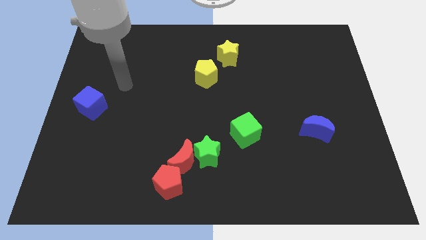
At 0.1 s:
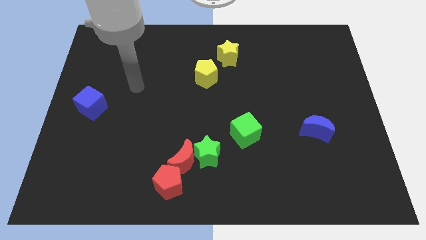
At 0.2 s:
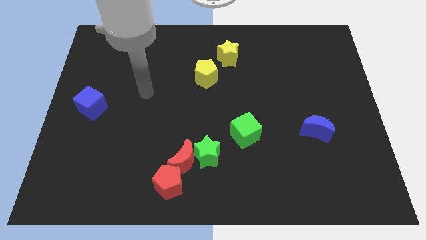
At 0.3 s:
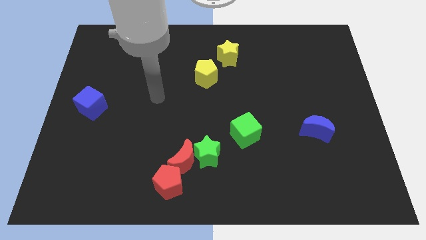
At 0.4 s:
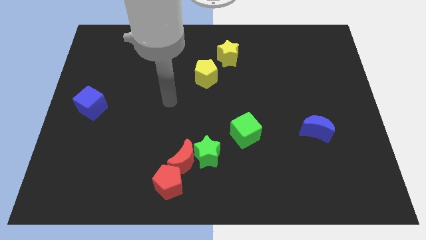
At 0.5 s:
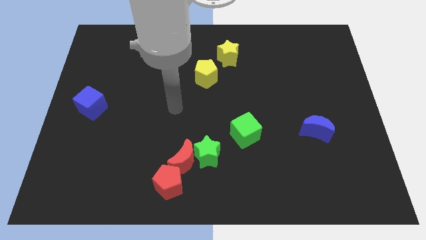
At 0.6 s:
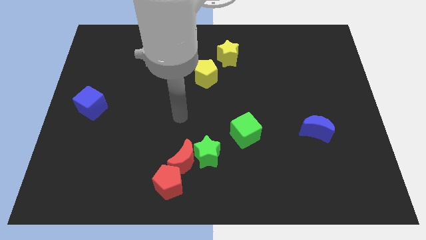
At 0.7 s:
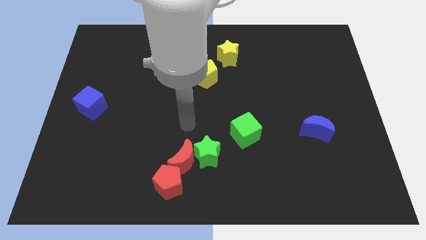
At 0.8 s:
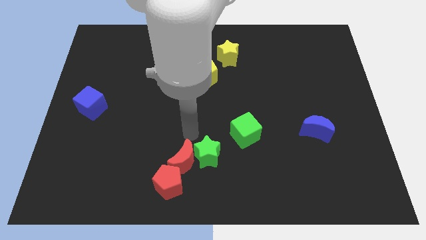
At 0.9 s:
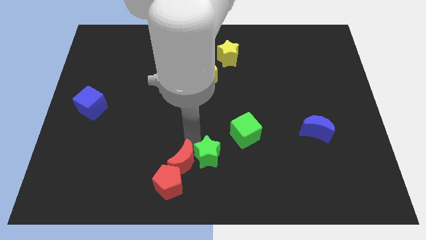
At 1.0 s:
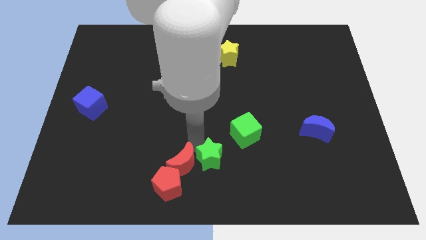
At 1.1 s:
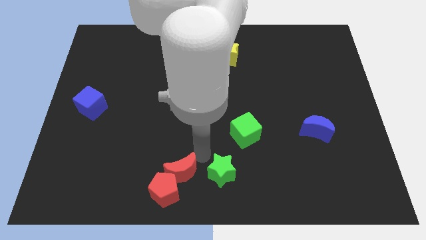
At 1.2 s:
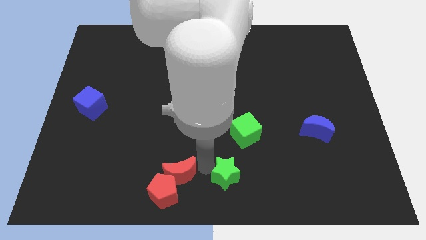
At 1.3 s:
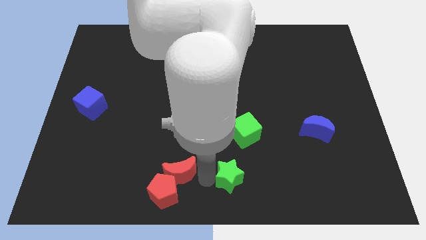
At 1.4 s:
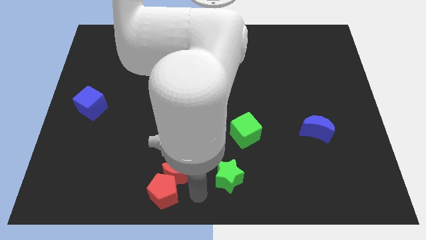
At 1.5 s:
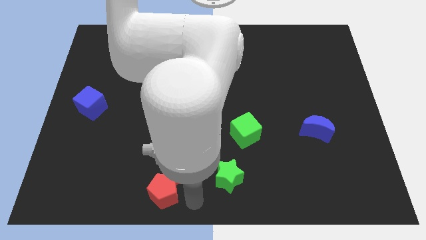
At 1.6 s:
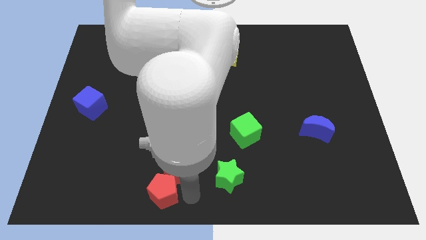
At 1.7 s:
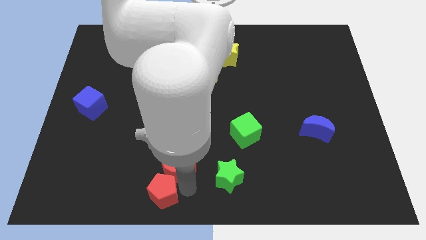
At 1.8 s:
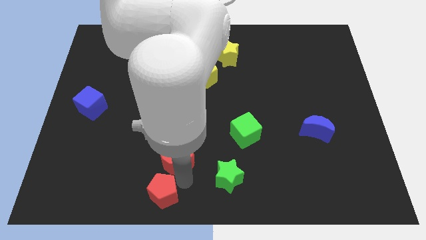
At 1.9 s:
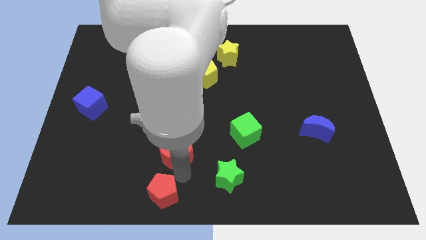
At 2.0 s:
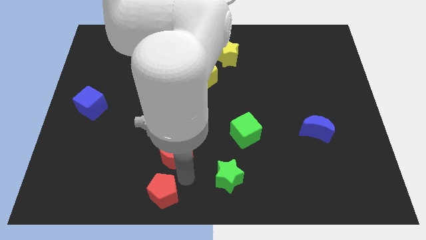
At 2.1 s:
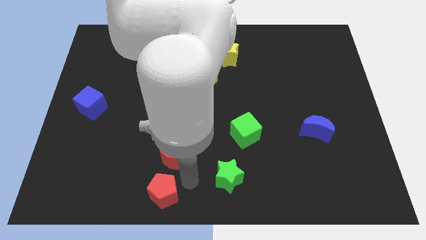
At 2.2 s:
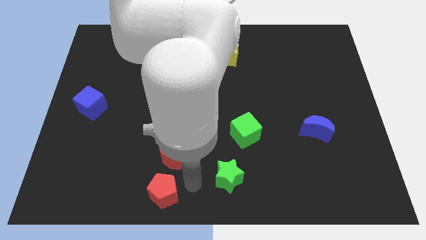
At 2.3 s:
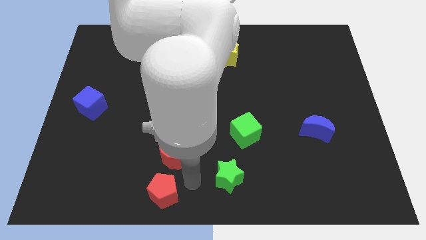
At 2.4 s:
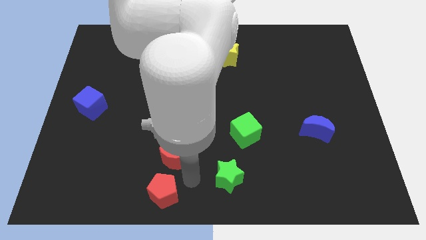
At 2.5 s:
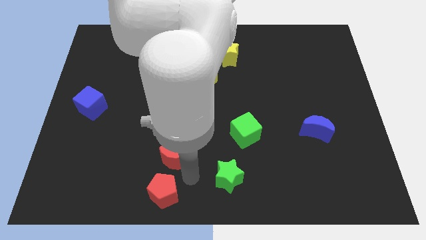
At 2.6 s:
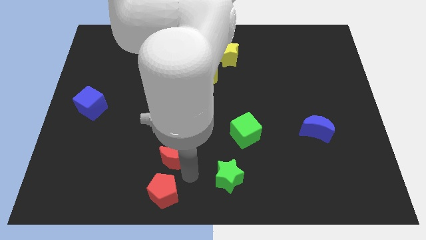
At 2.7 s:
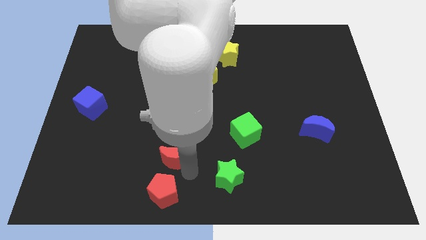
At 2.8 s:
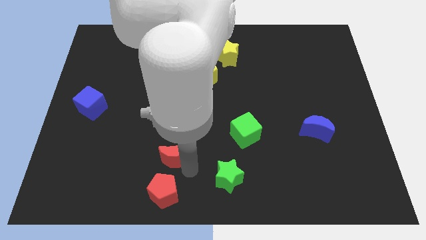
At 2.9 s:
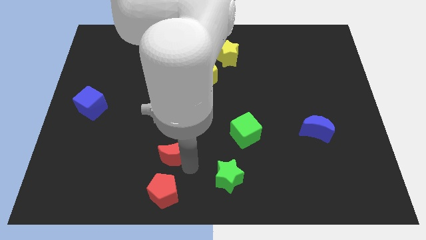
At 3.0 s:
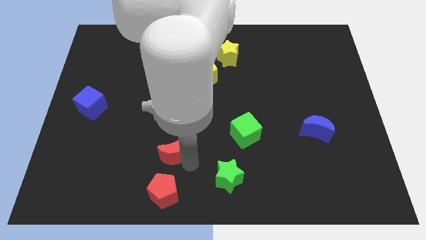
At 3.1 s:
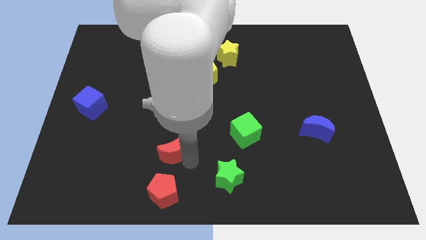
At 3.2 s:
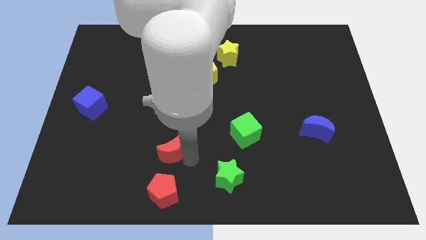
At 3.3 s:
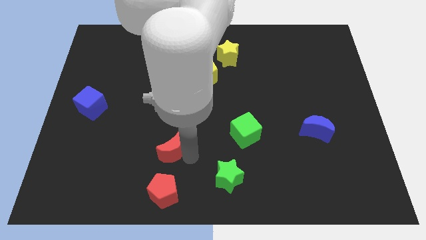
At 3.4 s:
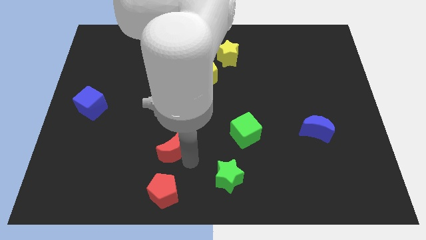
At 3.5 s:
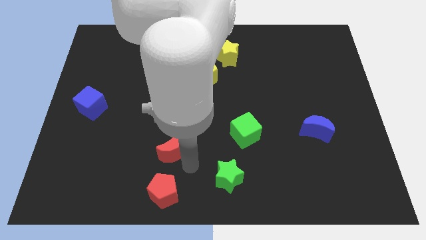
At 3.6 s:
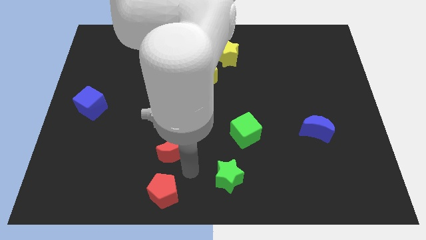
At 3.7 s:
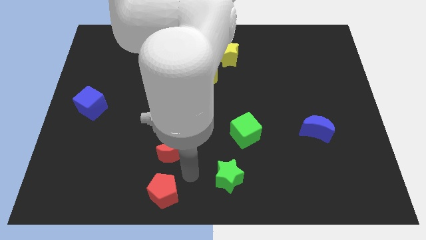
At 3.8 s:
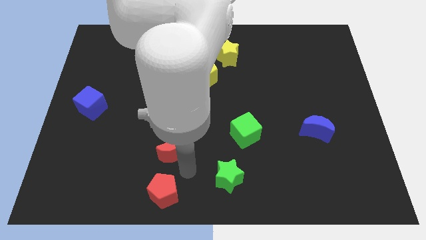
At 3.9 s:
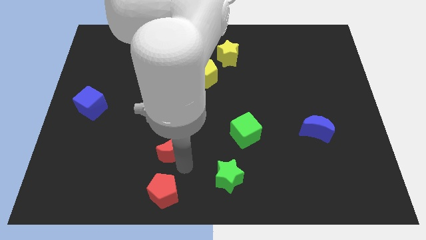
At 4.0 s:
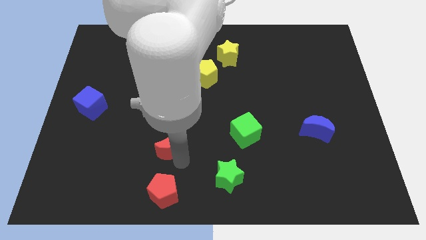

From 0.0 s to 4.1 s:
pull the red moon apart from the green star and red pentagon

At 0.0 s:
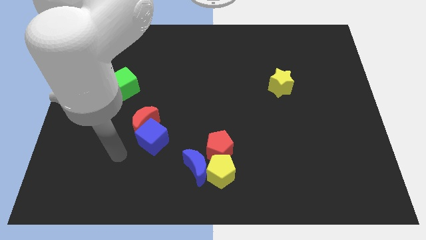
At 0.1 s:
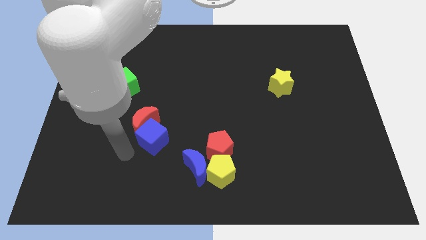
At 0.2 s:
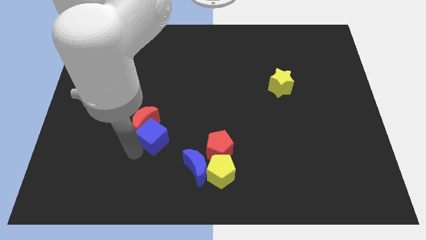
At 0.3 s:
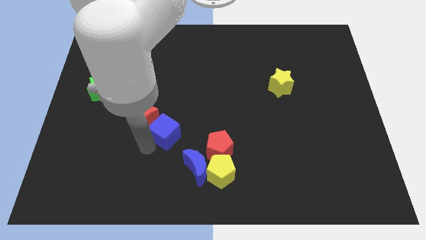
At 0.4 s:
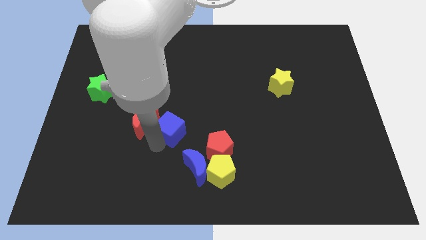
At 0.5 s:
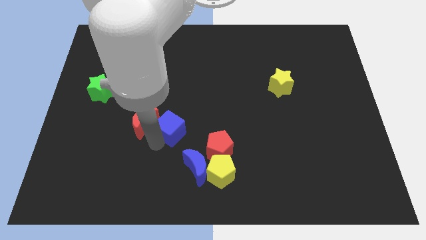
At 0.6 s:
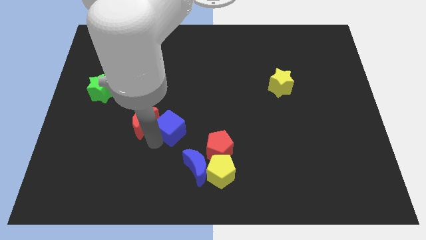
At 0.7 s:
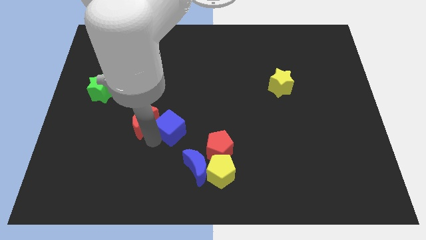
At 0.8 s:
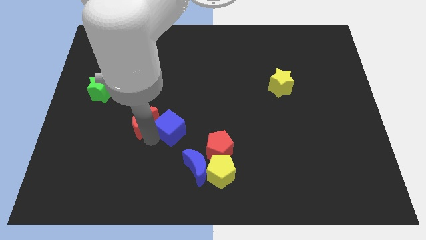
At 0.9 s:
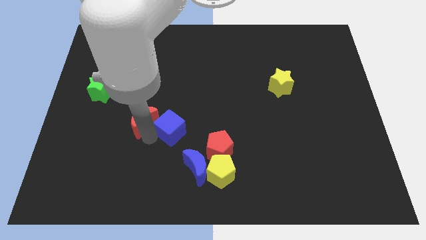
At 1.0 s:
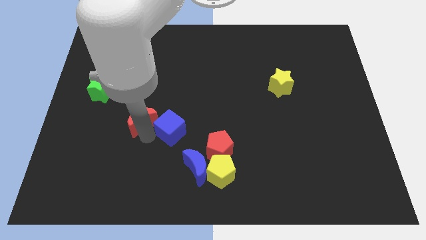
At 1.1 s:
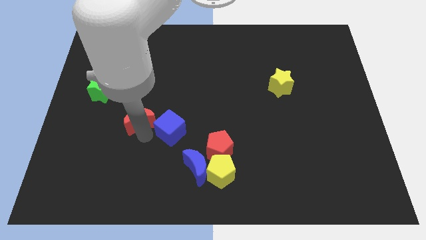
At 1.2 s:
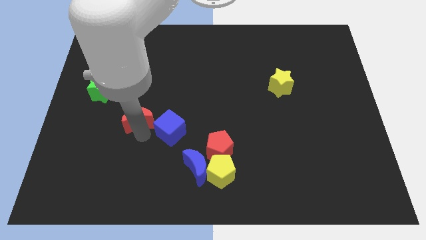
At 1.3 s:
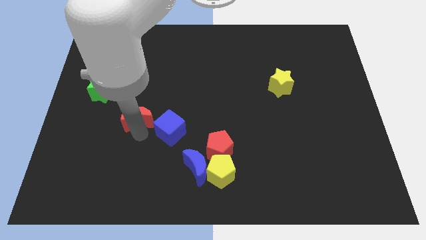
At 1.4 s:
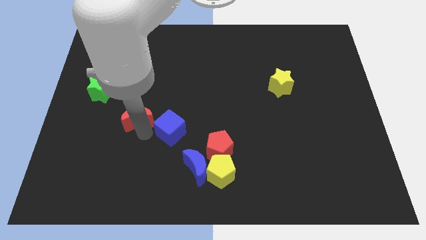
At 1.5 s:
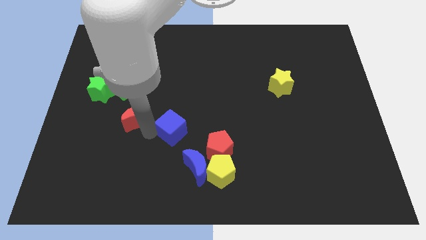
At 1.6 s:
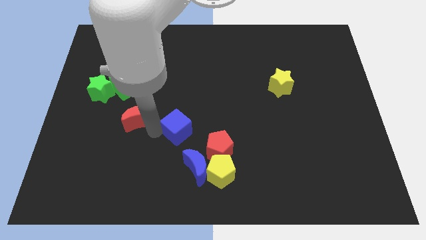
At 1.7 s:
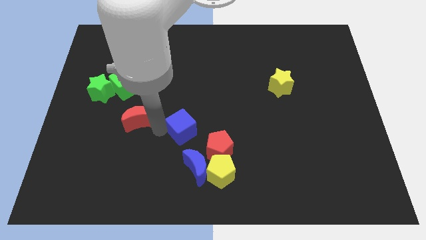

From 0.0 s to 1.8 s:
pull the red moon apart from the blue cube

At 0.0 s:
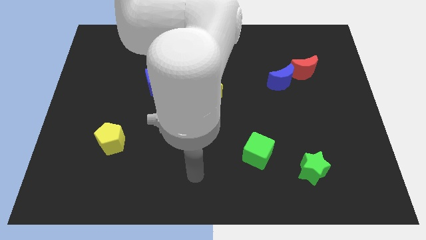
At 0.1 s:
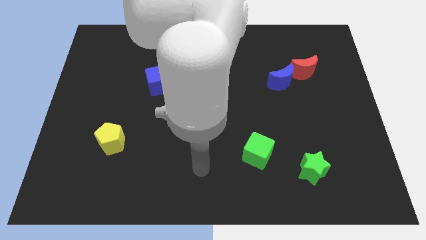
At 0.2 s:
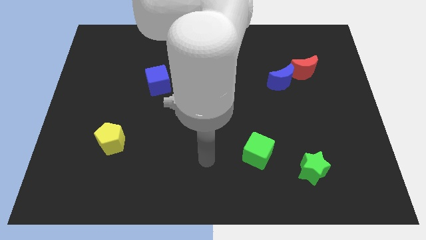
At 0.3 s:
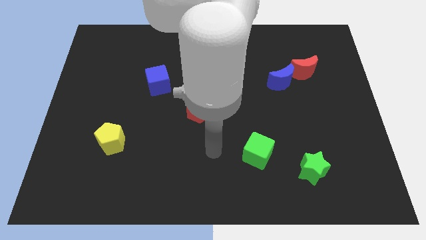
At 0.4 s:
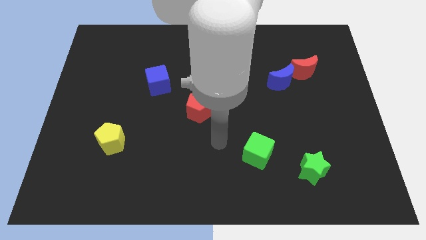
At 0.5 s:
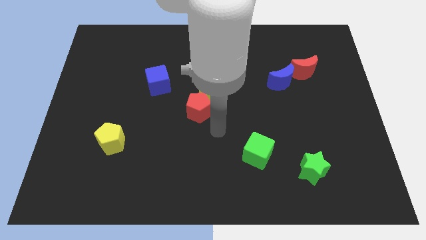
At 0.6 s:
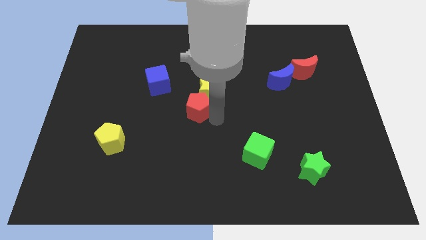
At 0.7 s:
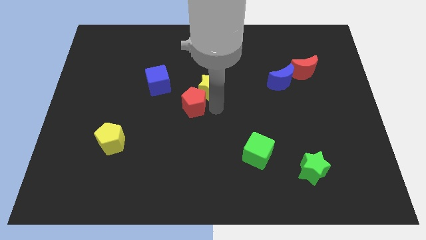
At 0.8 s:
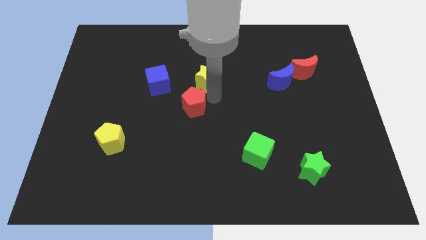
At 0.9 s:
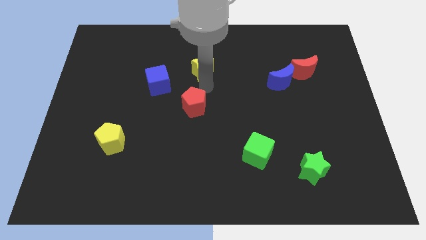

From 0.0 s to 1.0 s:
pull the red pentagon apart from the yellow star

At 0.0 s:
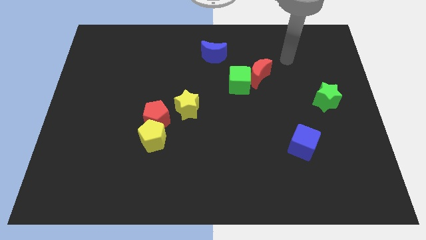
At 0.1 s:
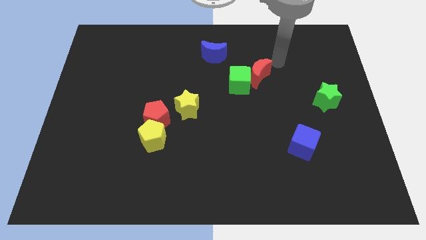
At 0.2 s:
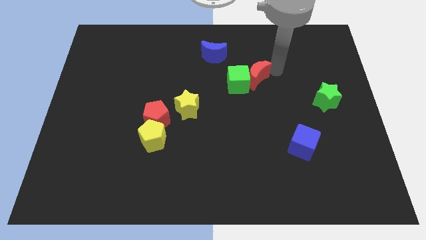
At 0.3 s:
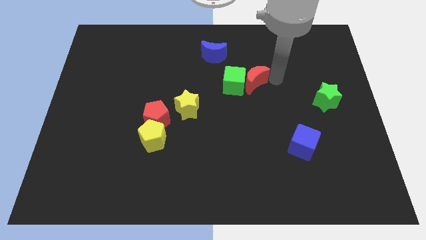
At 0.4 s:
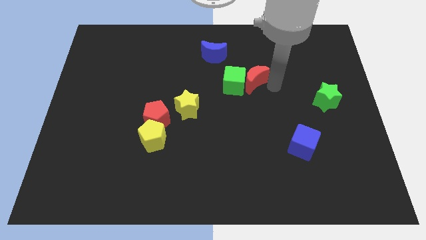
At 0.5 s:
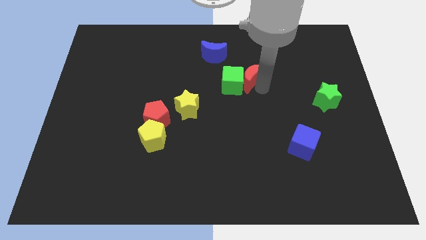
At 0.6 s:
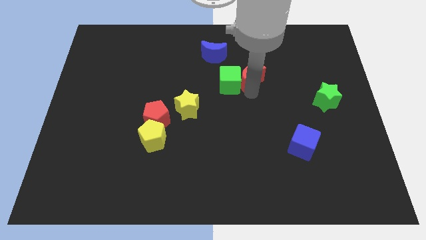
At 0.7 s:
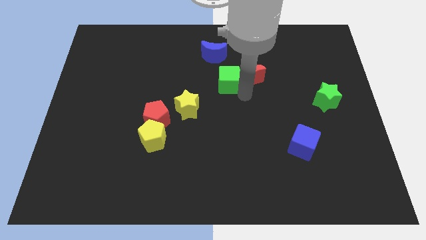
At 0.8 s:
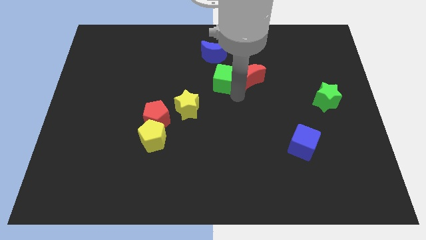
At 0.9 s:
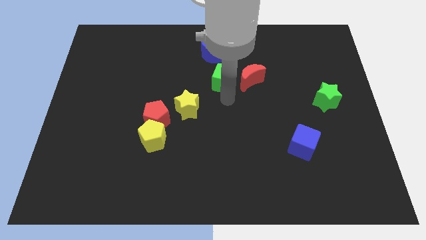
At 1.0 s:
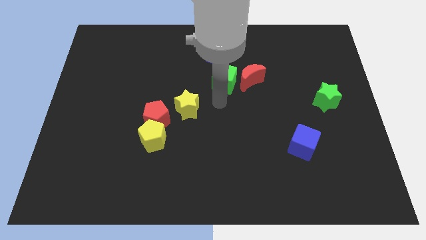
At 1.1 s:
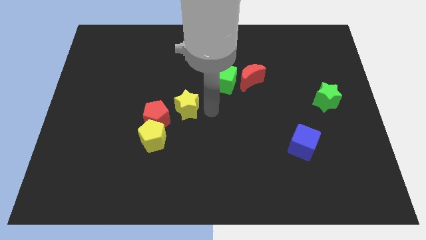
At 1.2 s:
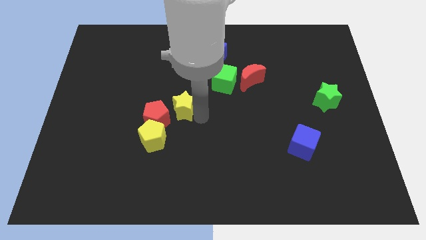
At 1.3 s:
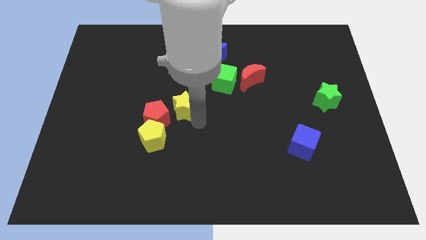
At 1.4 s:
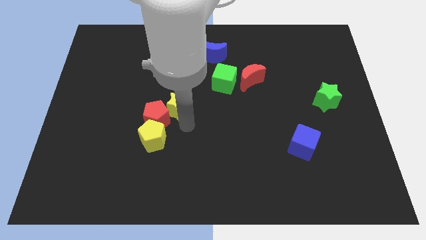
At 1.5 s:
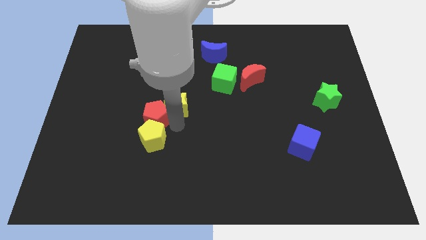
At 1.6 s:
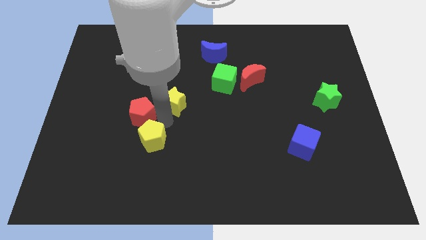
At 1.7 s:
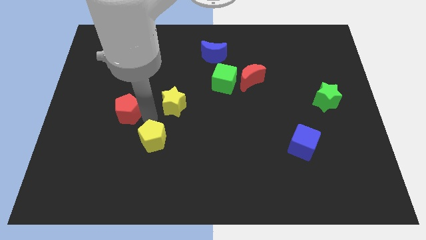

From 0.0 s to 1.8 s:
separate the yellow pentagon from the red pentagon

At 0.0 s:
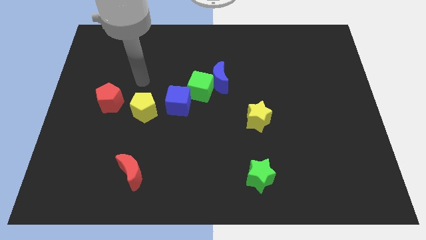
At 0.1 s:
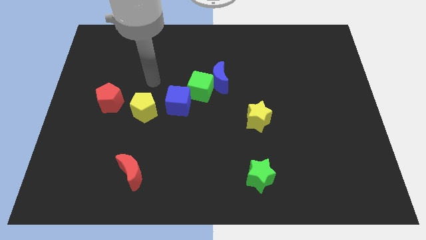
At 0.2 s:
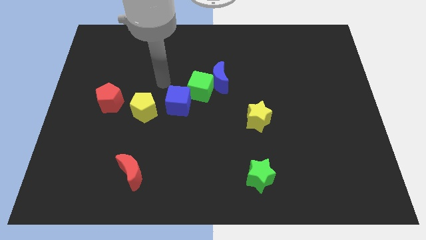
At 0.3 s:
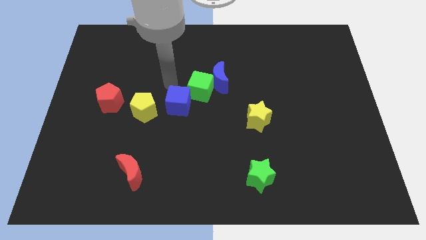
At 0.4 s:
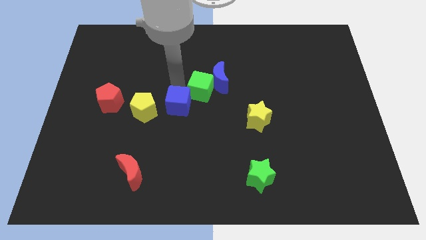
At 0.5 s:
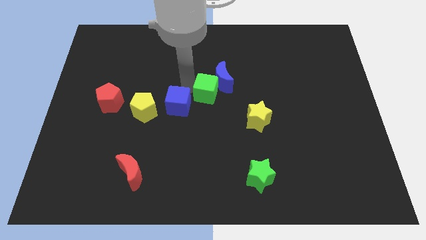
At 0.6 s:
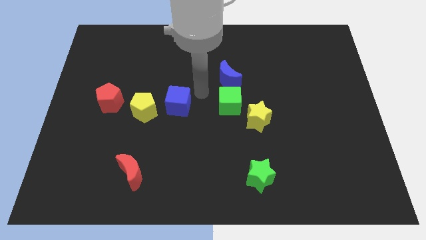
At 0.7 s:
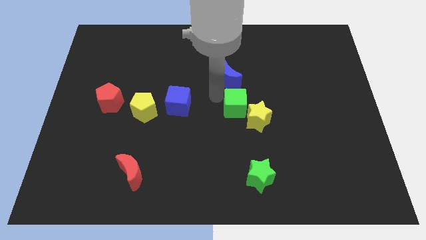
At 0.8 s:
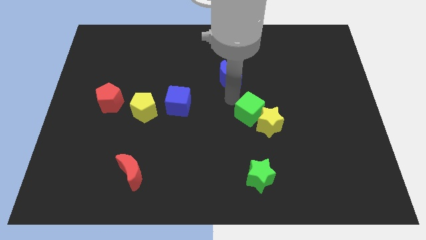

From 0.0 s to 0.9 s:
pull the blue moon apart from the green cube
